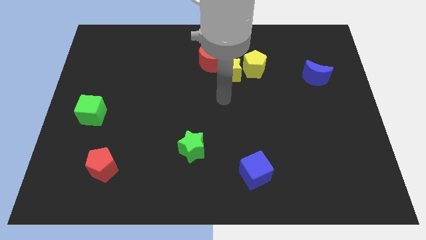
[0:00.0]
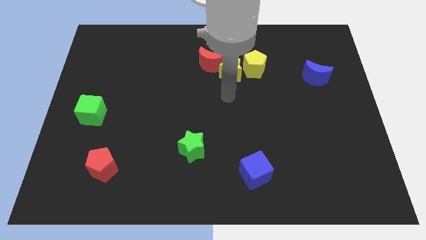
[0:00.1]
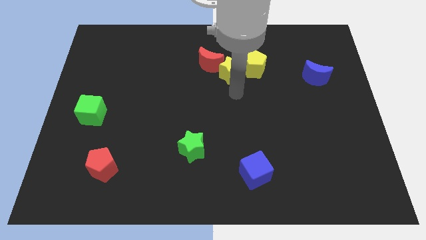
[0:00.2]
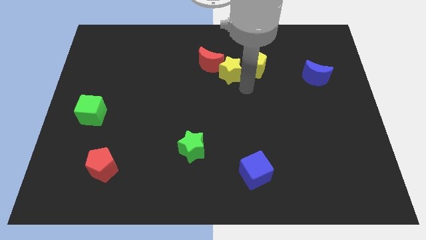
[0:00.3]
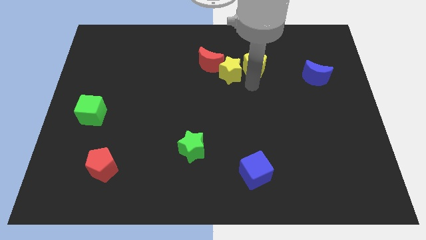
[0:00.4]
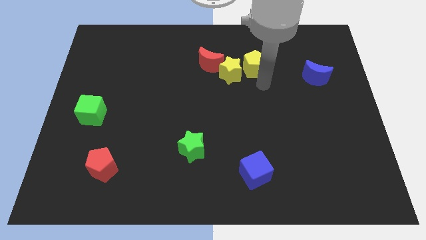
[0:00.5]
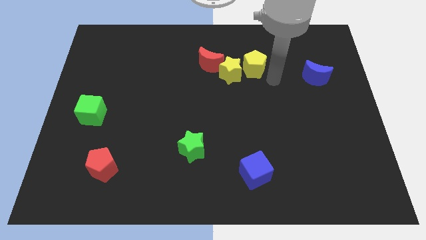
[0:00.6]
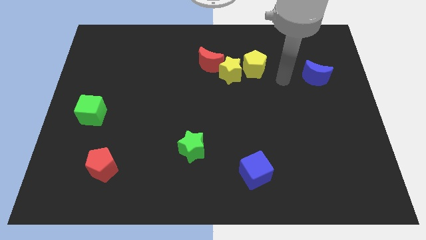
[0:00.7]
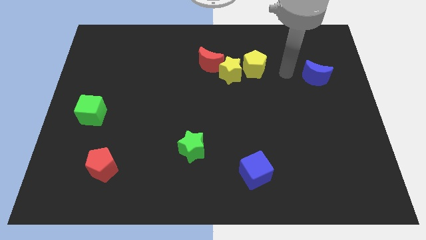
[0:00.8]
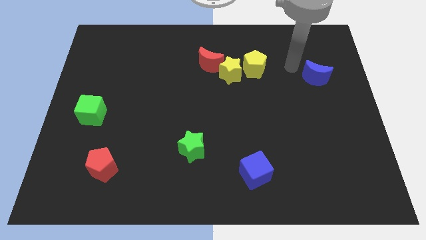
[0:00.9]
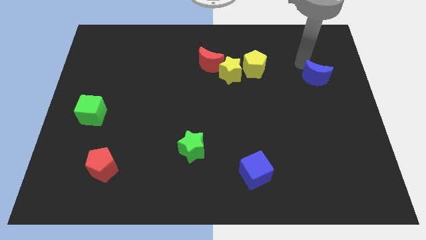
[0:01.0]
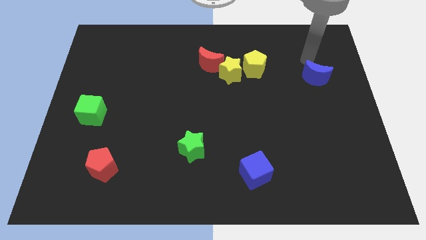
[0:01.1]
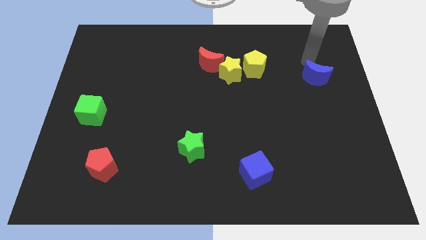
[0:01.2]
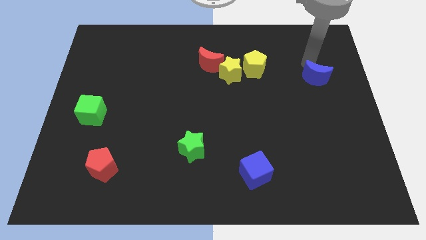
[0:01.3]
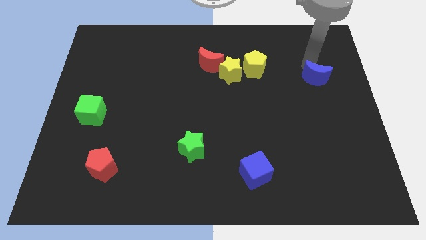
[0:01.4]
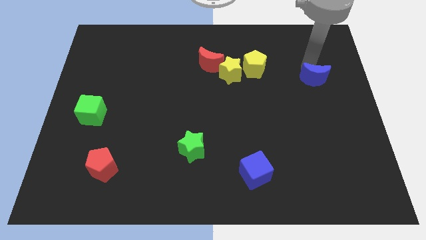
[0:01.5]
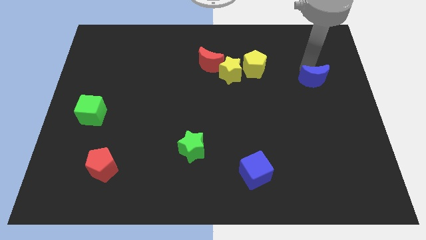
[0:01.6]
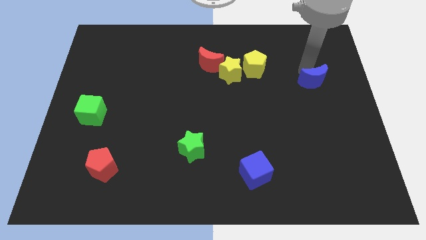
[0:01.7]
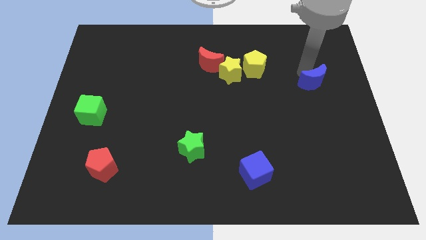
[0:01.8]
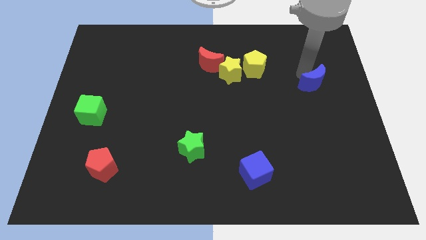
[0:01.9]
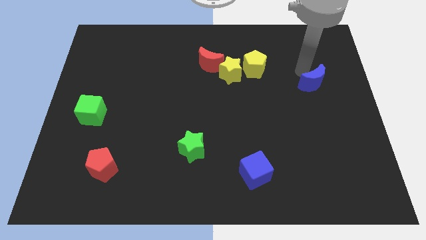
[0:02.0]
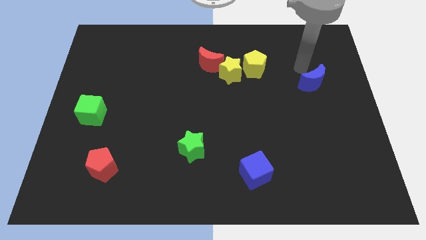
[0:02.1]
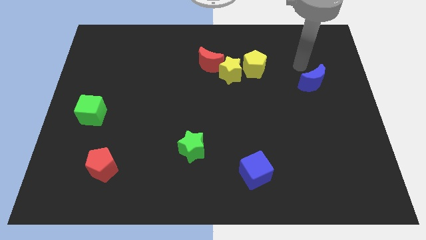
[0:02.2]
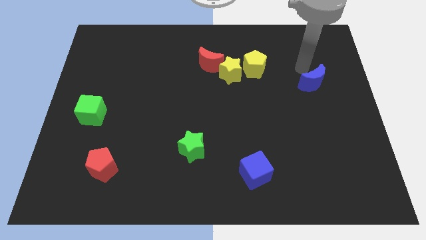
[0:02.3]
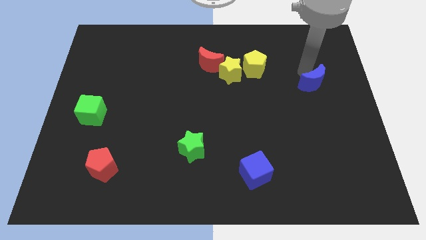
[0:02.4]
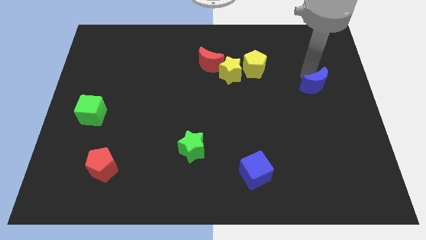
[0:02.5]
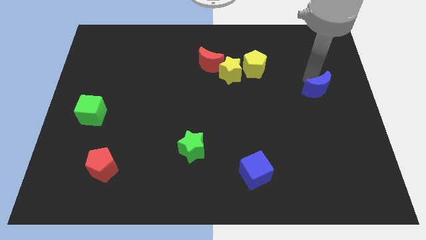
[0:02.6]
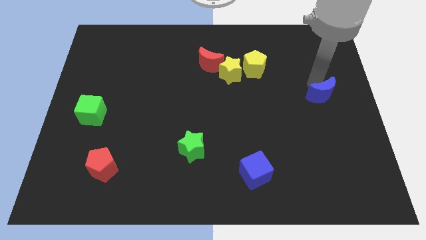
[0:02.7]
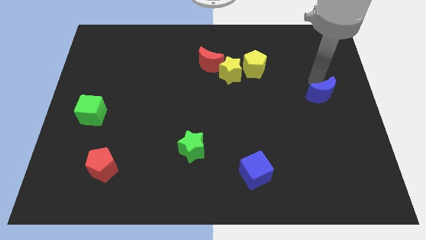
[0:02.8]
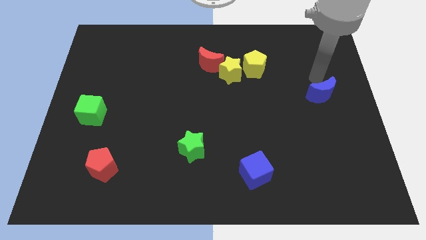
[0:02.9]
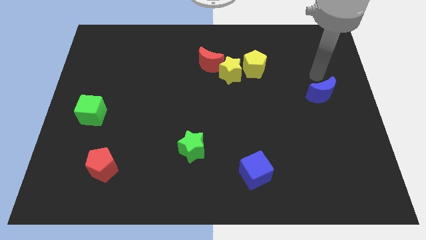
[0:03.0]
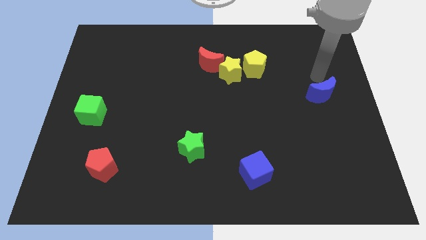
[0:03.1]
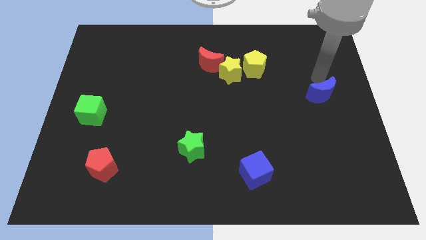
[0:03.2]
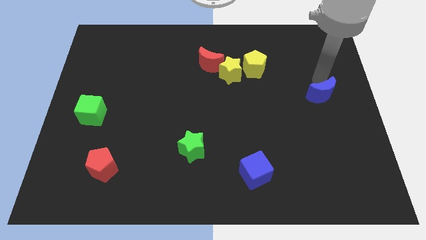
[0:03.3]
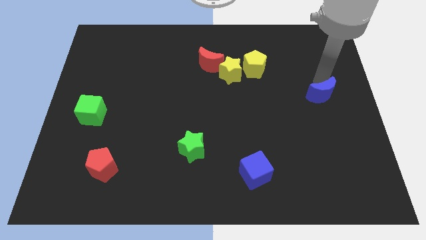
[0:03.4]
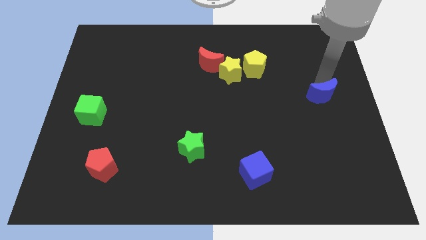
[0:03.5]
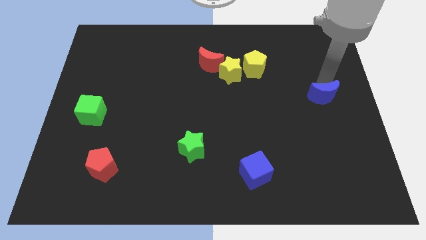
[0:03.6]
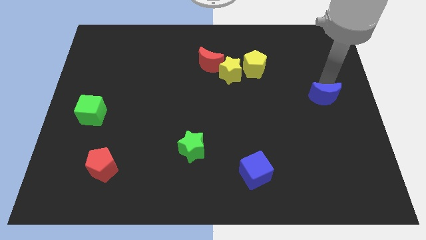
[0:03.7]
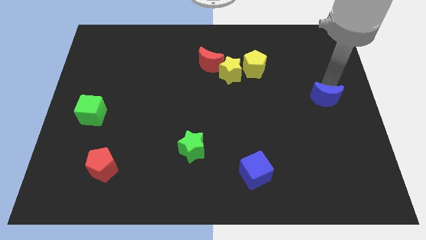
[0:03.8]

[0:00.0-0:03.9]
push the blue moon slightly down

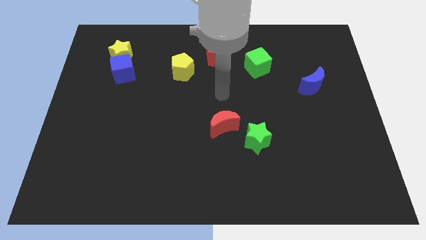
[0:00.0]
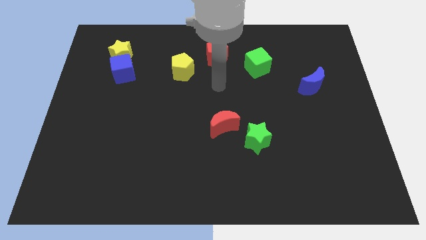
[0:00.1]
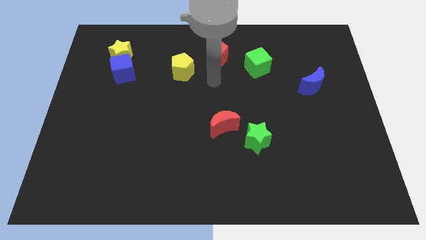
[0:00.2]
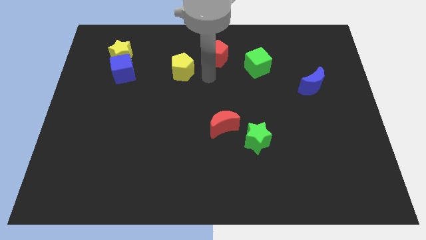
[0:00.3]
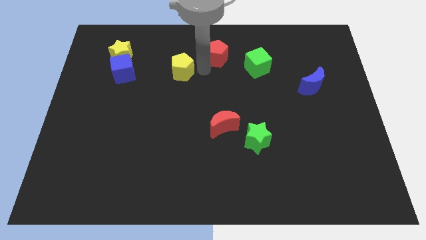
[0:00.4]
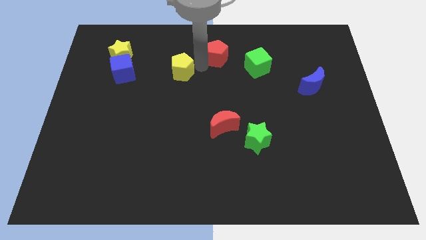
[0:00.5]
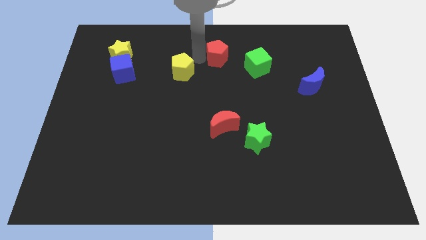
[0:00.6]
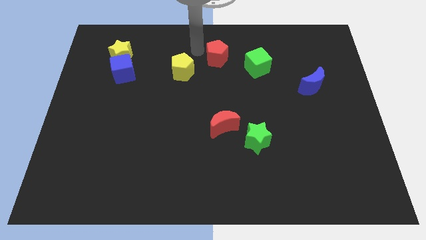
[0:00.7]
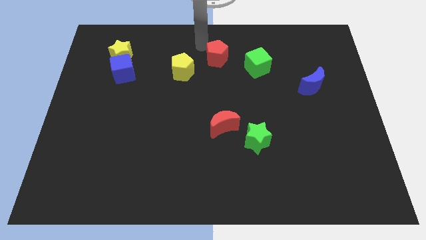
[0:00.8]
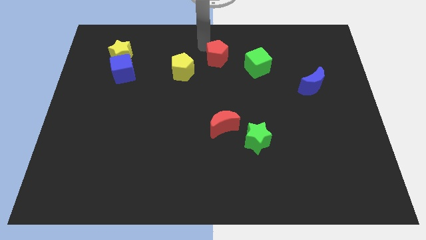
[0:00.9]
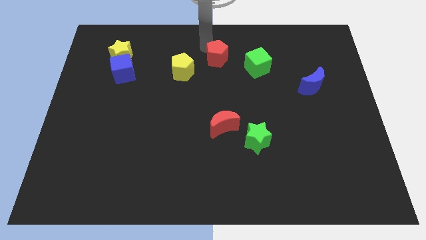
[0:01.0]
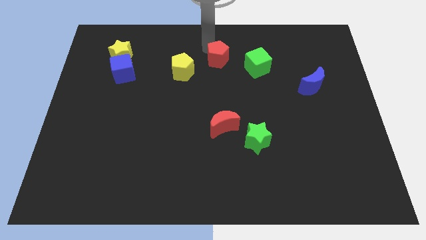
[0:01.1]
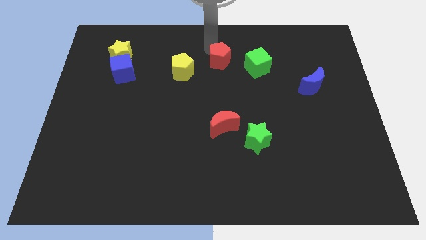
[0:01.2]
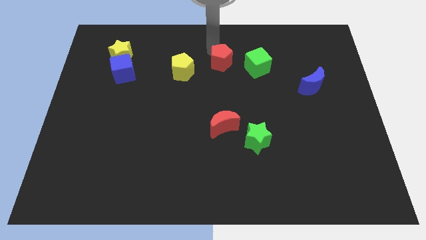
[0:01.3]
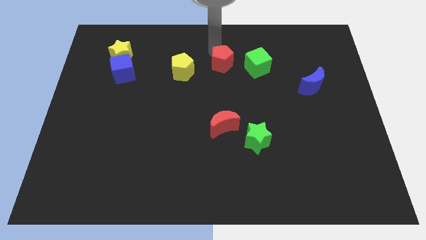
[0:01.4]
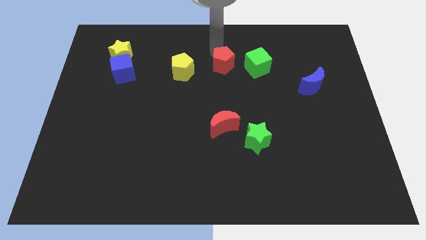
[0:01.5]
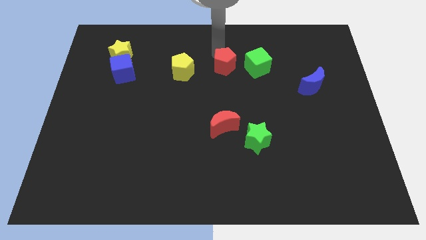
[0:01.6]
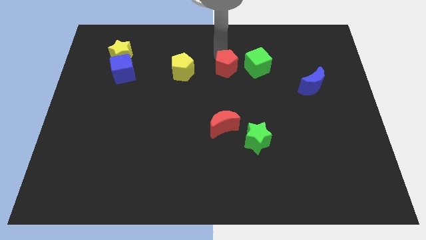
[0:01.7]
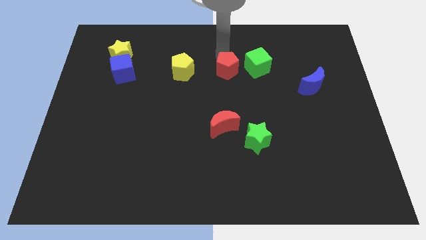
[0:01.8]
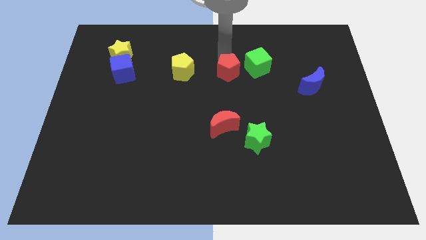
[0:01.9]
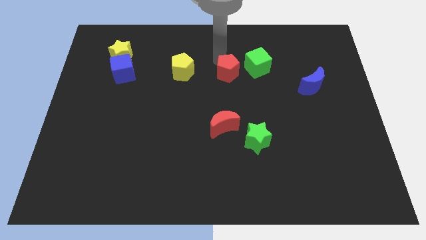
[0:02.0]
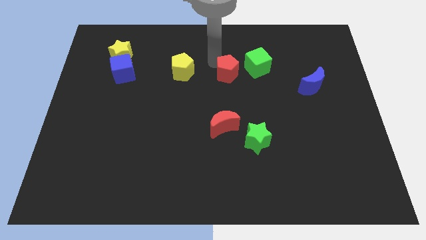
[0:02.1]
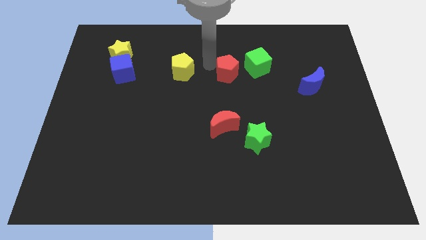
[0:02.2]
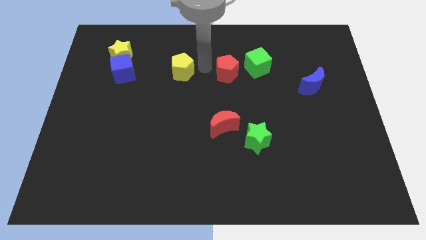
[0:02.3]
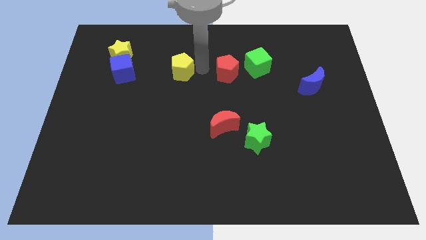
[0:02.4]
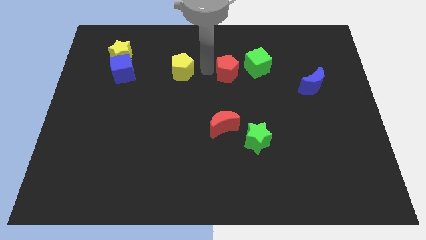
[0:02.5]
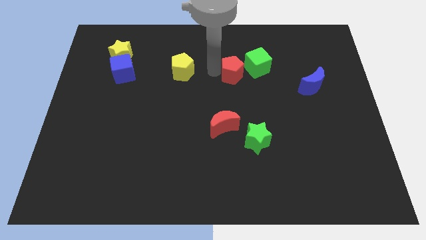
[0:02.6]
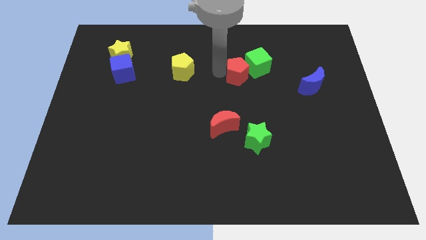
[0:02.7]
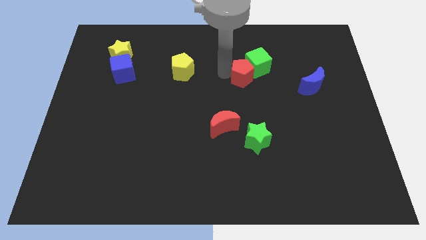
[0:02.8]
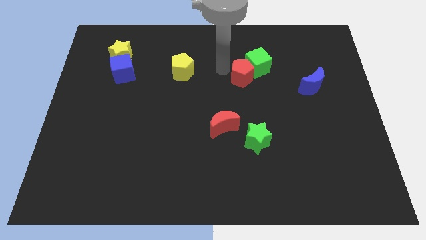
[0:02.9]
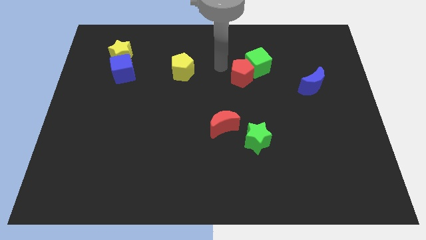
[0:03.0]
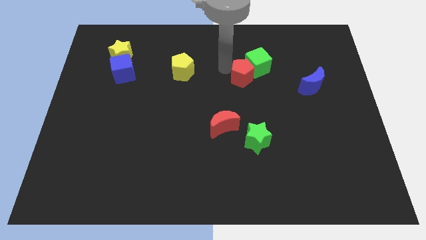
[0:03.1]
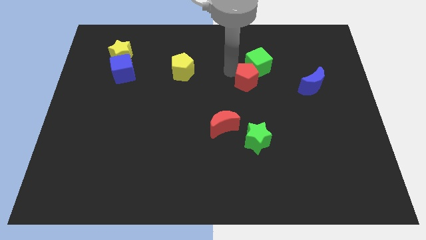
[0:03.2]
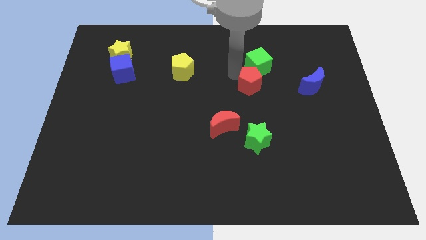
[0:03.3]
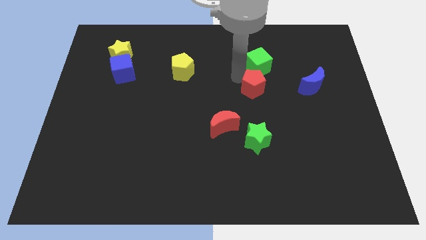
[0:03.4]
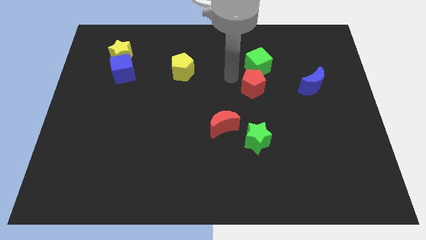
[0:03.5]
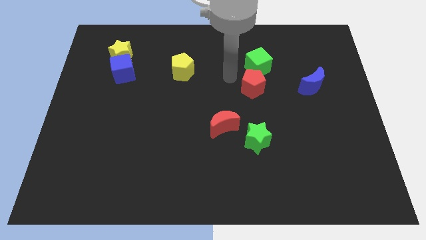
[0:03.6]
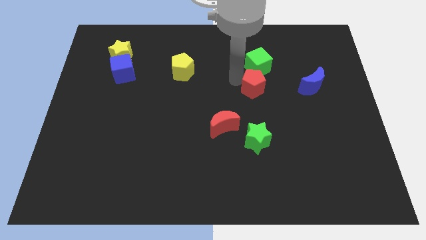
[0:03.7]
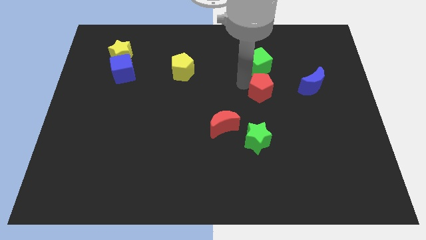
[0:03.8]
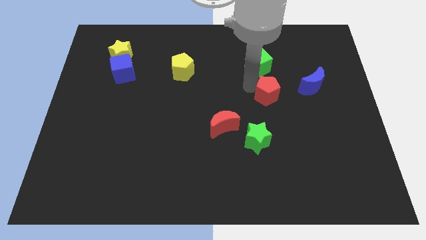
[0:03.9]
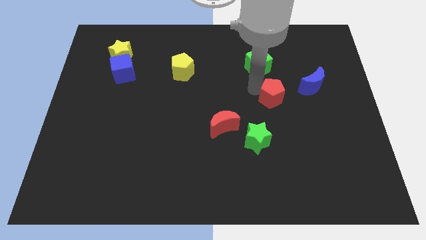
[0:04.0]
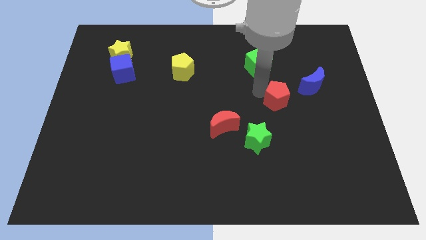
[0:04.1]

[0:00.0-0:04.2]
move the red pentagon downwards and then right
